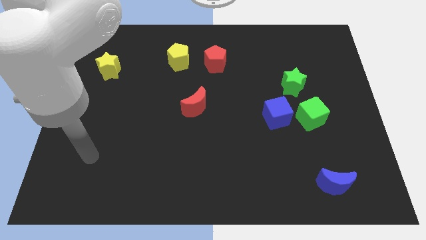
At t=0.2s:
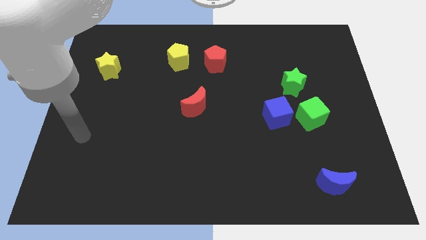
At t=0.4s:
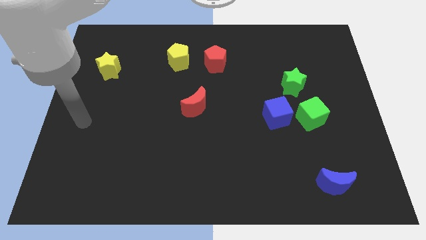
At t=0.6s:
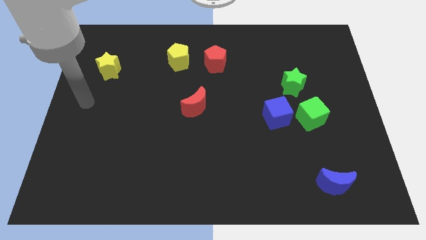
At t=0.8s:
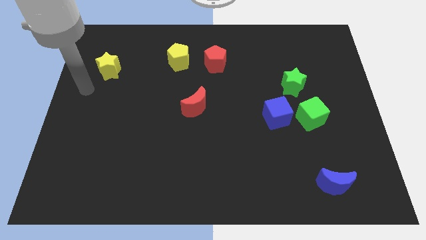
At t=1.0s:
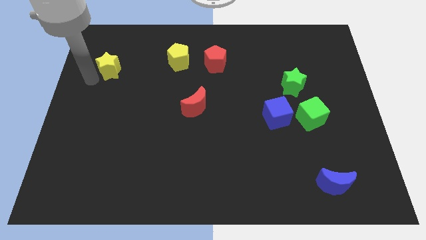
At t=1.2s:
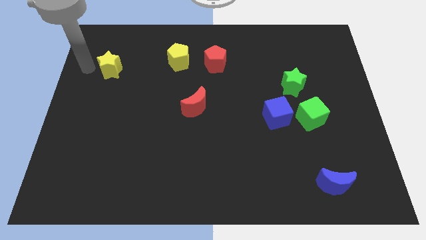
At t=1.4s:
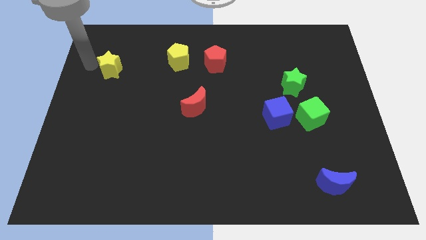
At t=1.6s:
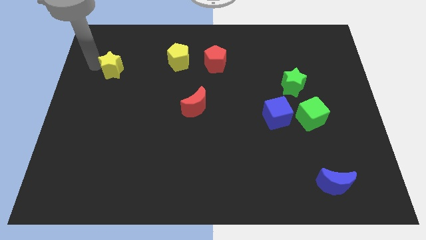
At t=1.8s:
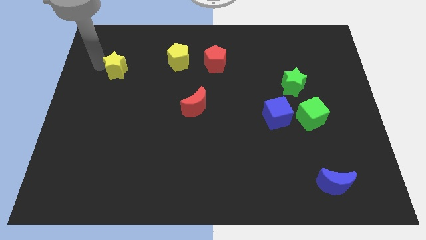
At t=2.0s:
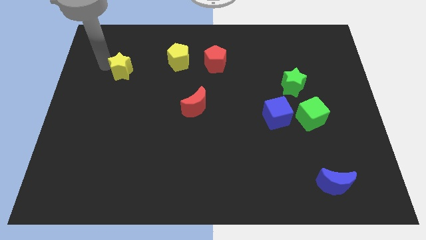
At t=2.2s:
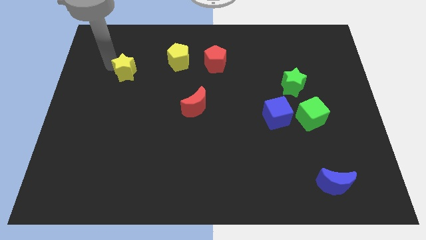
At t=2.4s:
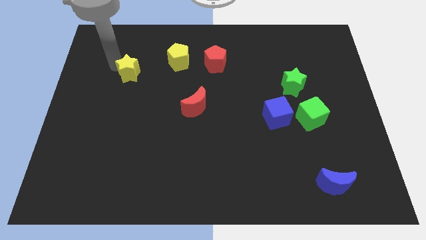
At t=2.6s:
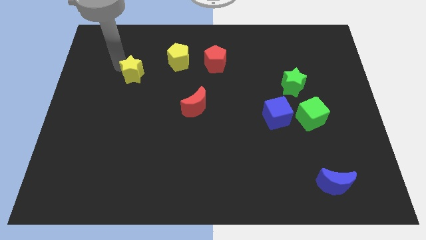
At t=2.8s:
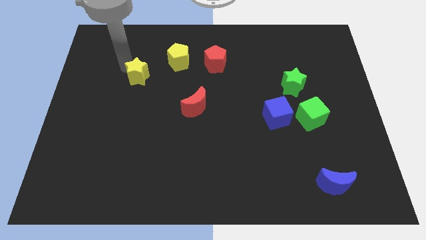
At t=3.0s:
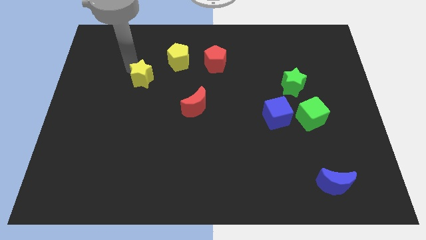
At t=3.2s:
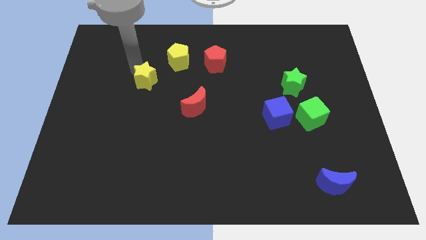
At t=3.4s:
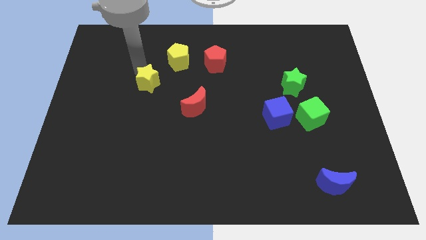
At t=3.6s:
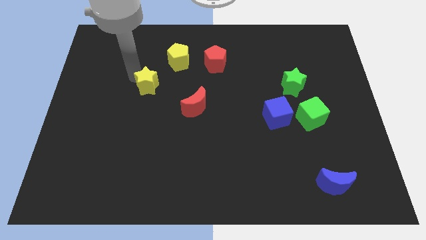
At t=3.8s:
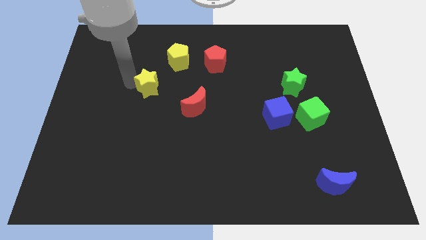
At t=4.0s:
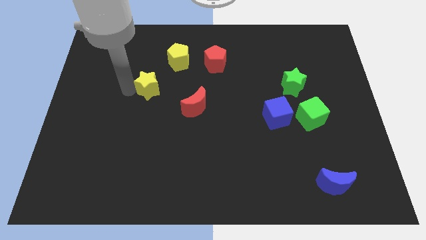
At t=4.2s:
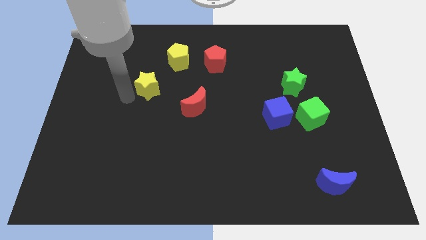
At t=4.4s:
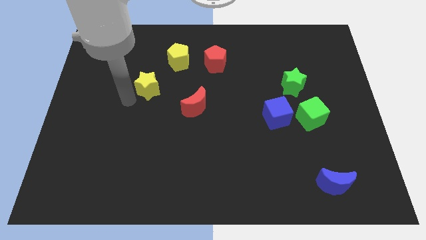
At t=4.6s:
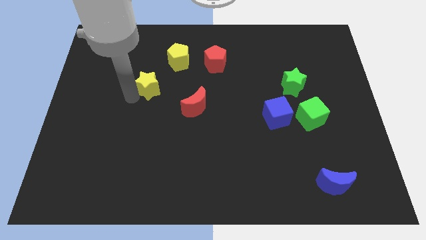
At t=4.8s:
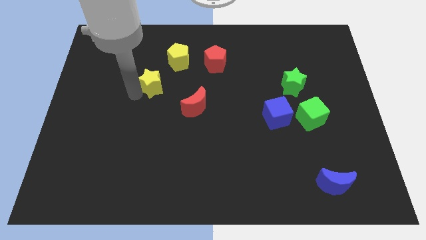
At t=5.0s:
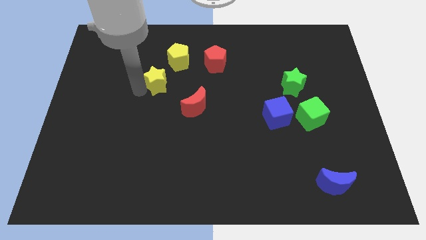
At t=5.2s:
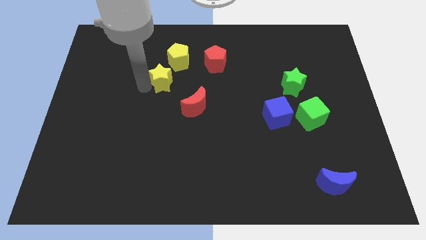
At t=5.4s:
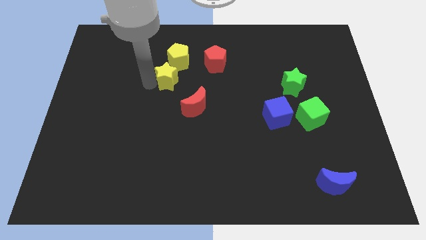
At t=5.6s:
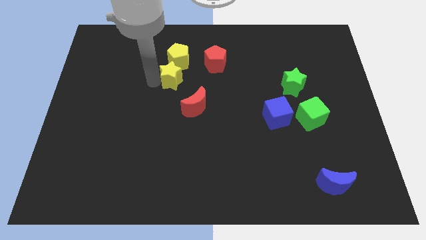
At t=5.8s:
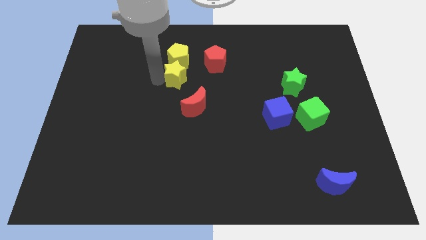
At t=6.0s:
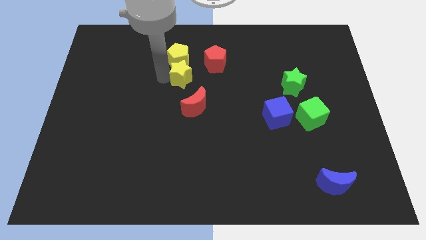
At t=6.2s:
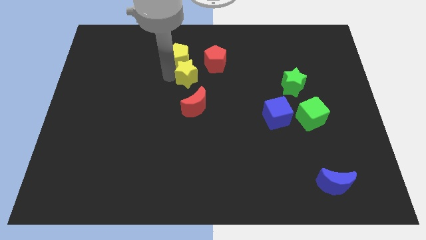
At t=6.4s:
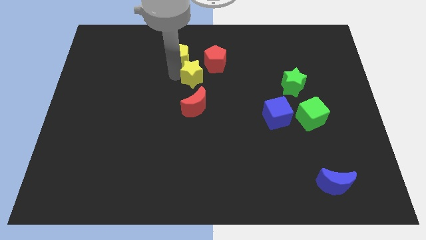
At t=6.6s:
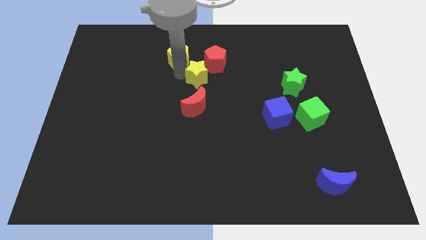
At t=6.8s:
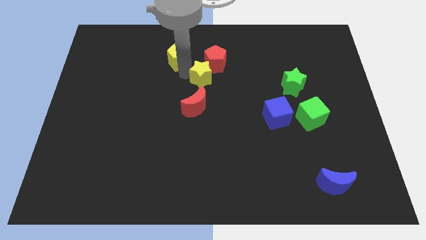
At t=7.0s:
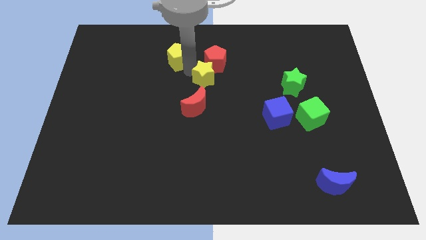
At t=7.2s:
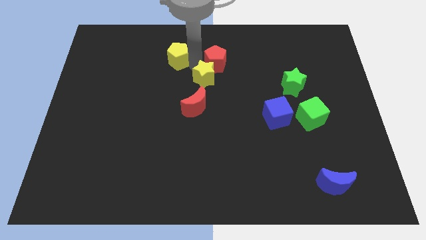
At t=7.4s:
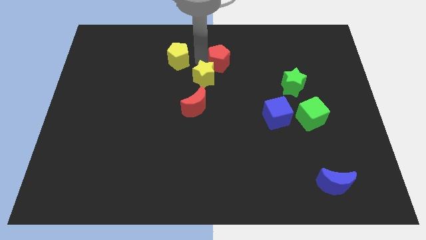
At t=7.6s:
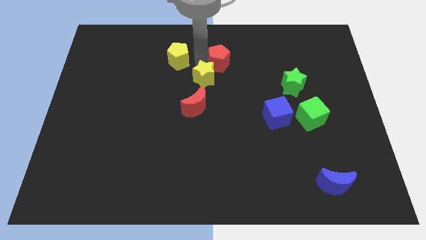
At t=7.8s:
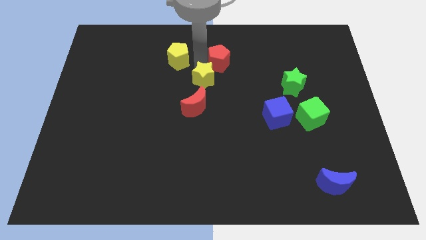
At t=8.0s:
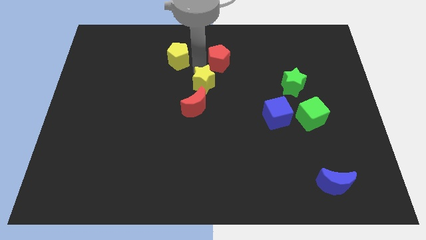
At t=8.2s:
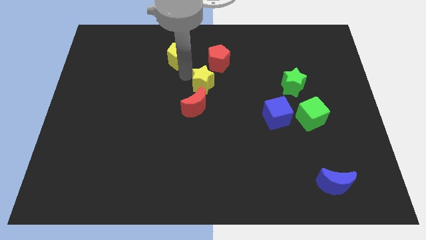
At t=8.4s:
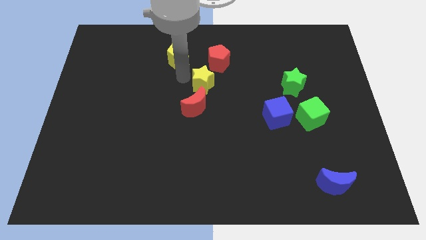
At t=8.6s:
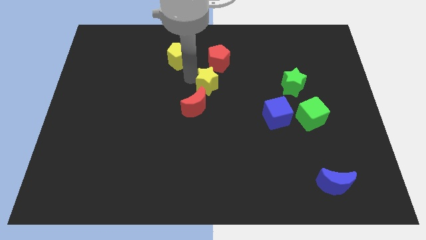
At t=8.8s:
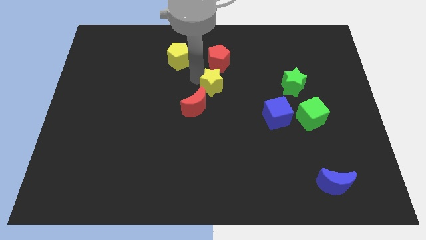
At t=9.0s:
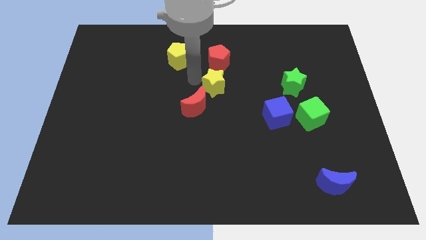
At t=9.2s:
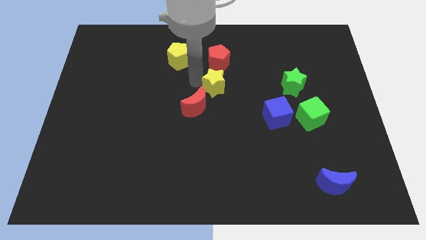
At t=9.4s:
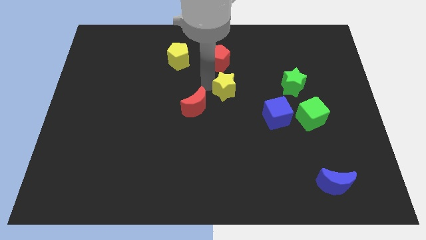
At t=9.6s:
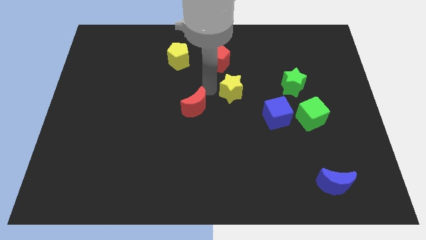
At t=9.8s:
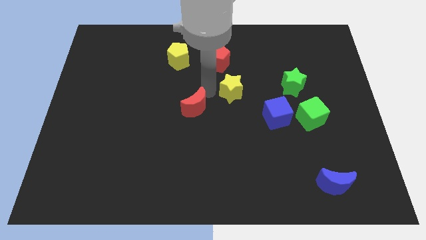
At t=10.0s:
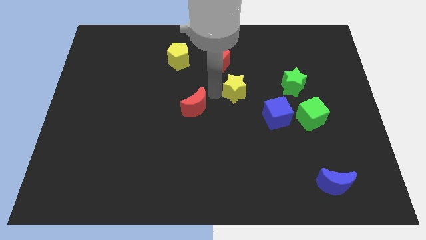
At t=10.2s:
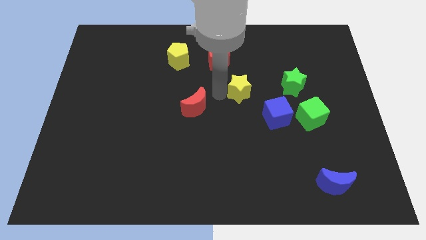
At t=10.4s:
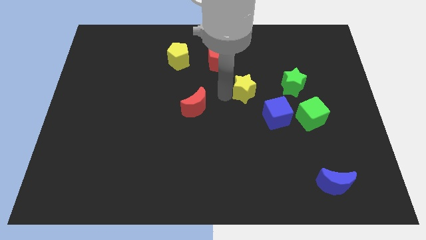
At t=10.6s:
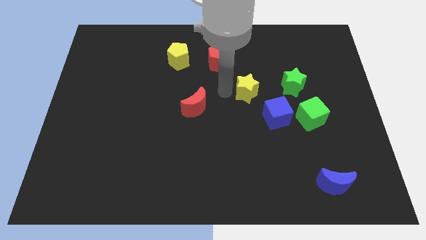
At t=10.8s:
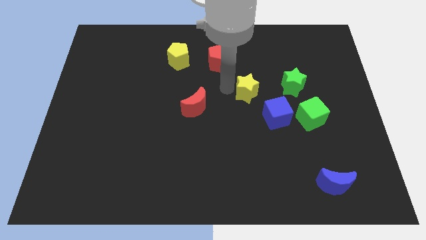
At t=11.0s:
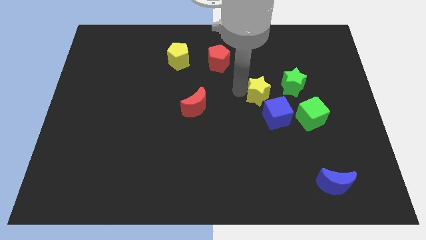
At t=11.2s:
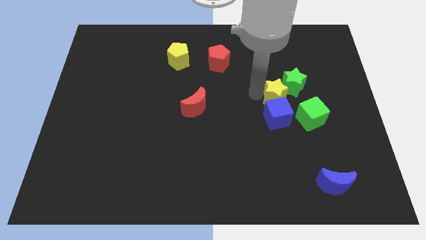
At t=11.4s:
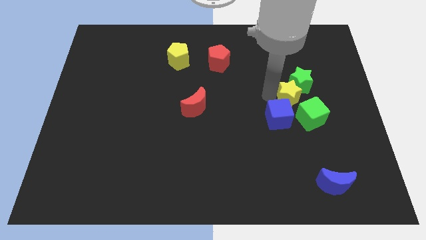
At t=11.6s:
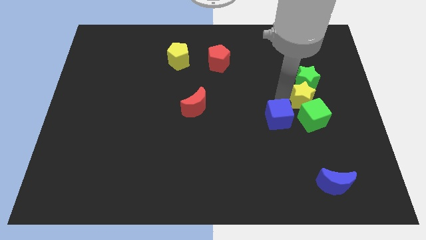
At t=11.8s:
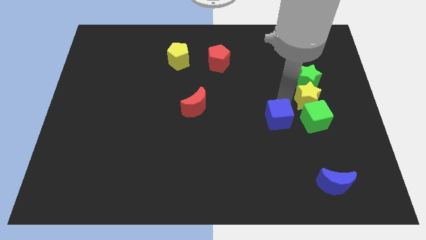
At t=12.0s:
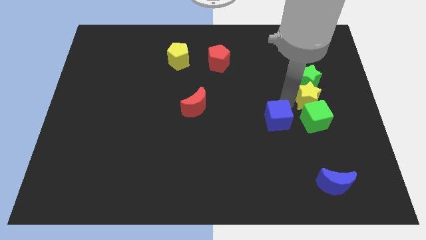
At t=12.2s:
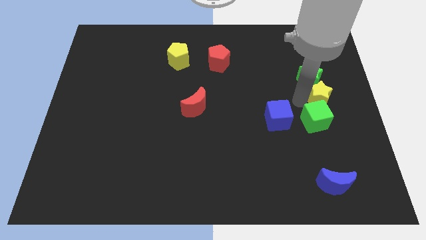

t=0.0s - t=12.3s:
slide the yellow star to the center right
